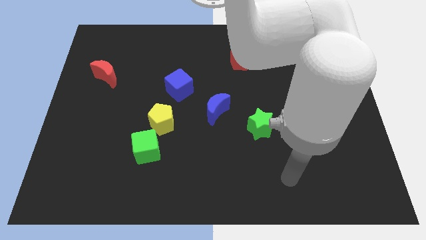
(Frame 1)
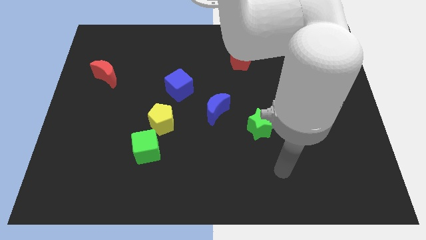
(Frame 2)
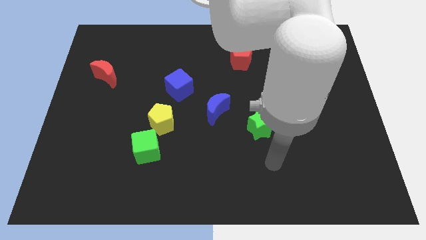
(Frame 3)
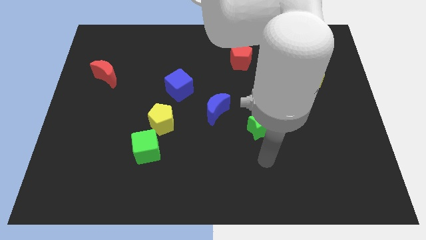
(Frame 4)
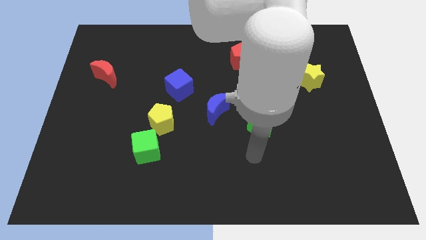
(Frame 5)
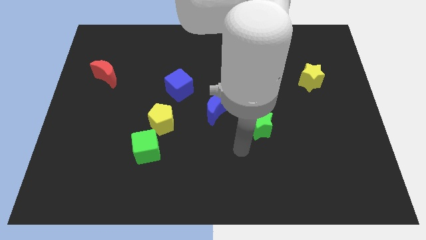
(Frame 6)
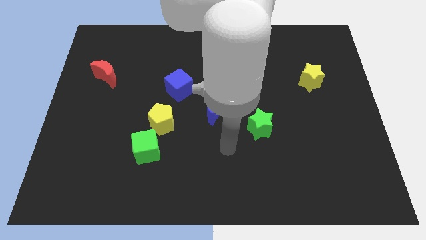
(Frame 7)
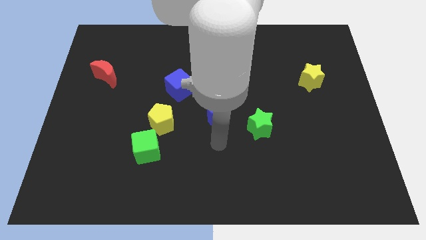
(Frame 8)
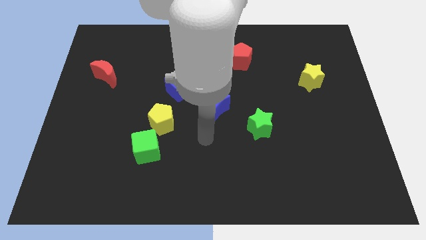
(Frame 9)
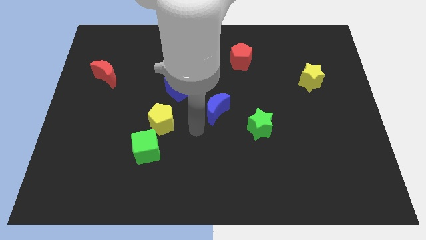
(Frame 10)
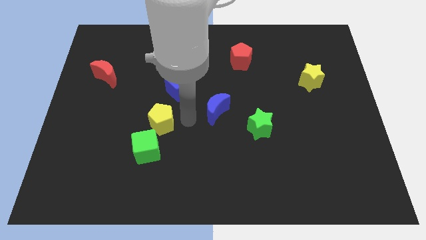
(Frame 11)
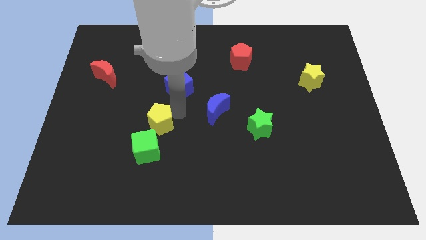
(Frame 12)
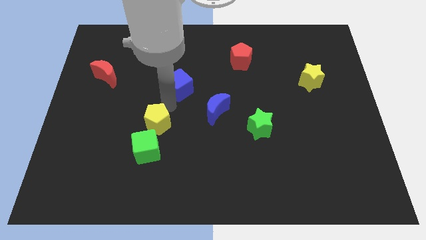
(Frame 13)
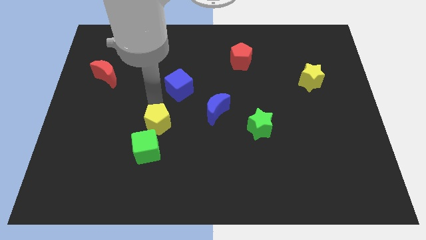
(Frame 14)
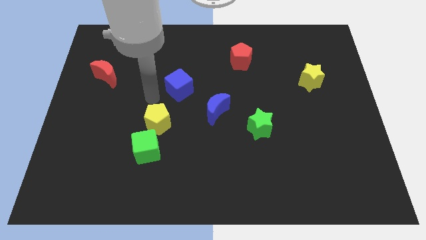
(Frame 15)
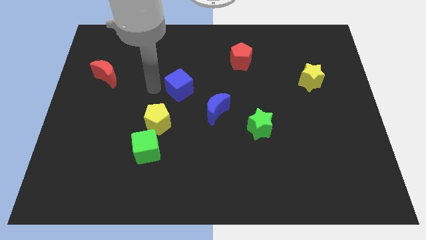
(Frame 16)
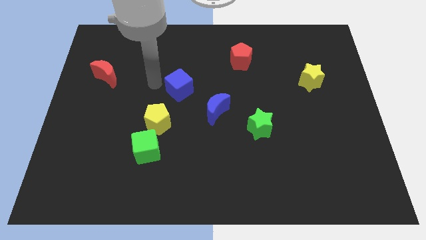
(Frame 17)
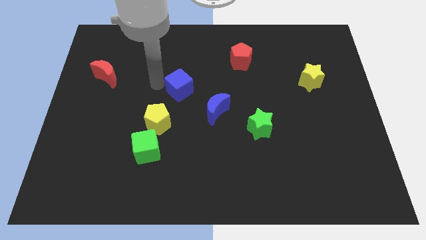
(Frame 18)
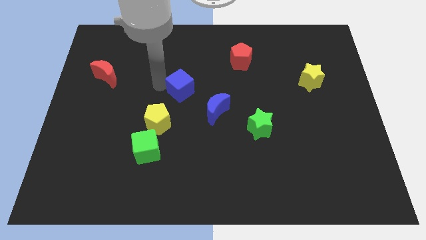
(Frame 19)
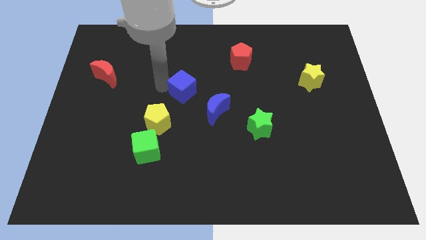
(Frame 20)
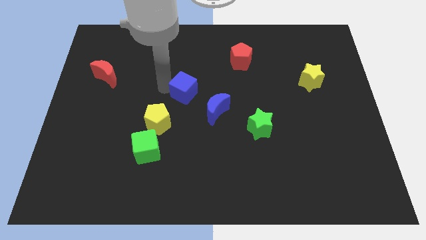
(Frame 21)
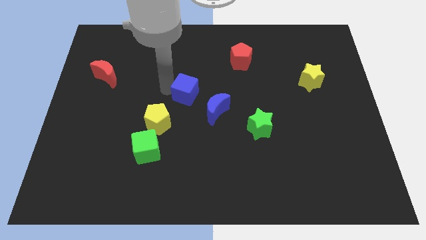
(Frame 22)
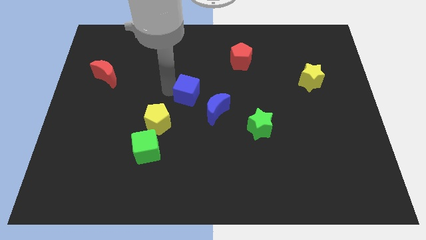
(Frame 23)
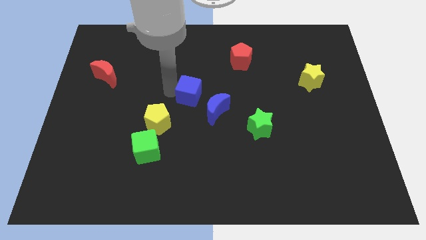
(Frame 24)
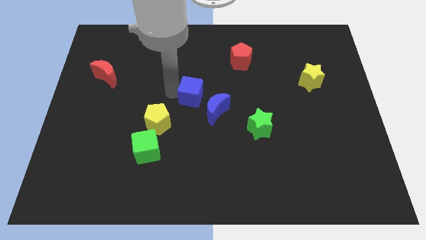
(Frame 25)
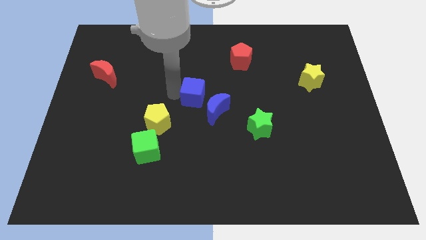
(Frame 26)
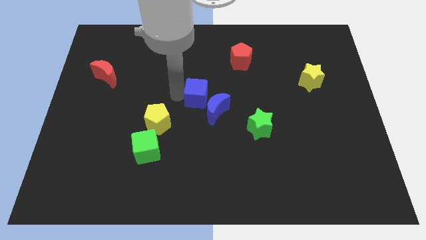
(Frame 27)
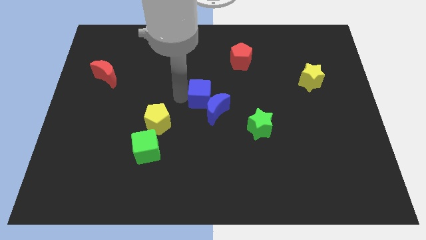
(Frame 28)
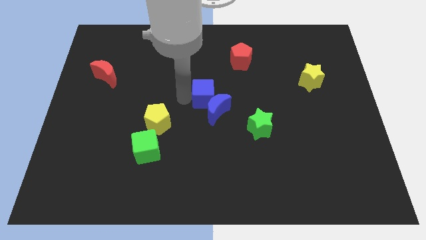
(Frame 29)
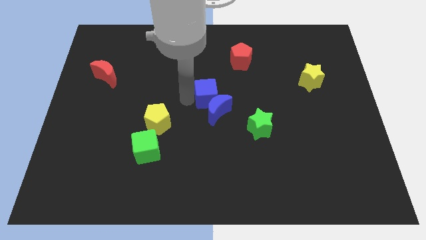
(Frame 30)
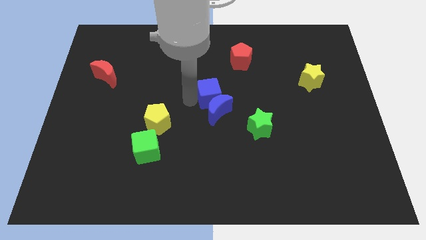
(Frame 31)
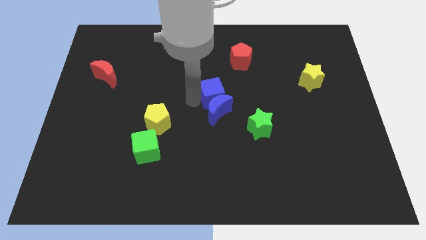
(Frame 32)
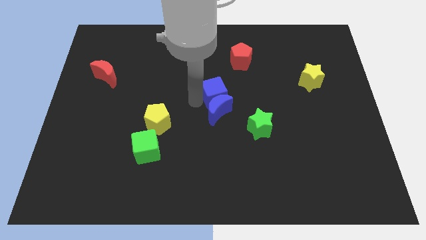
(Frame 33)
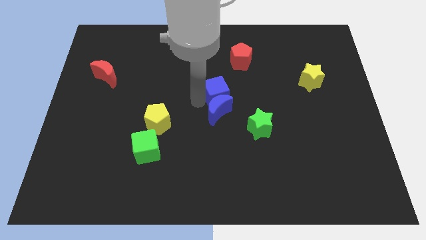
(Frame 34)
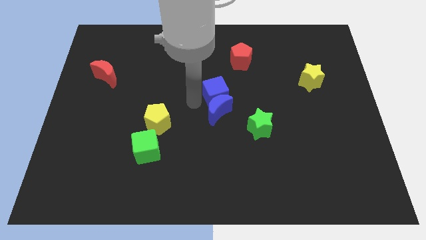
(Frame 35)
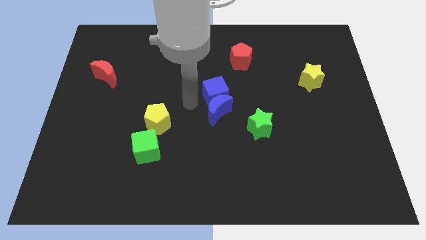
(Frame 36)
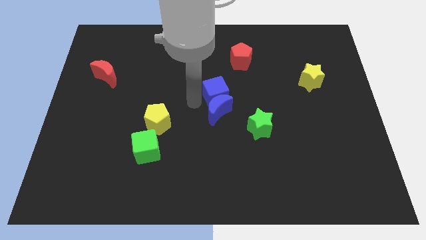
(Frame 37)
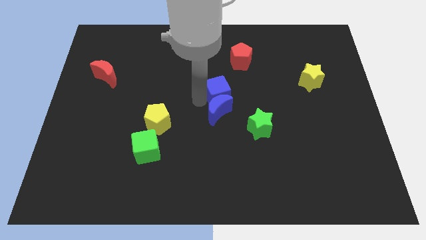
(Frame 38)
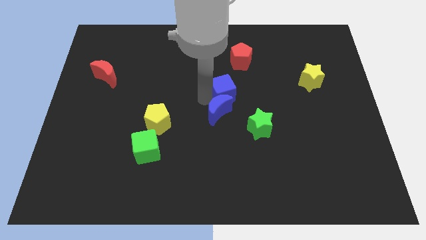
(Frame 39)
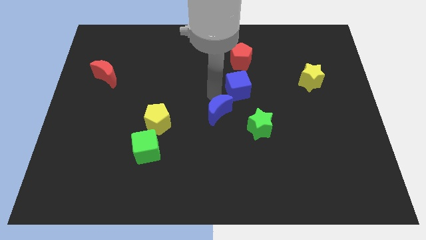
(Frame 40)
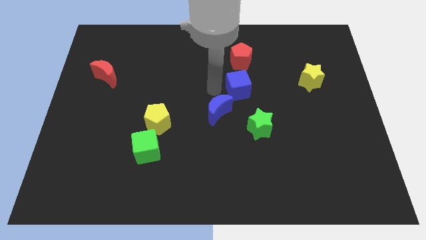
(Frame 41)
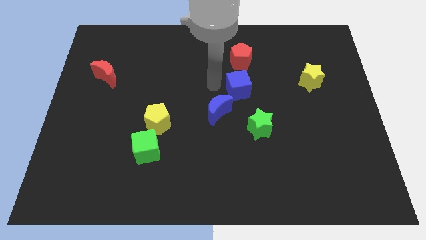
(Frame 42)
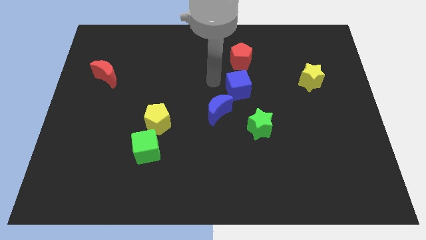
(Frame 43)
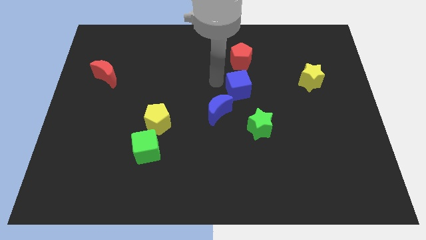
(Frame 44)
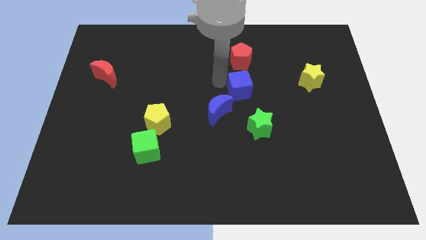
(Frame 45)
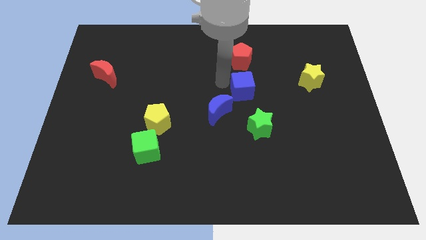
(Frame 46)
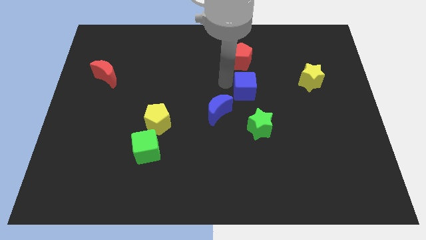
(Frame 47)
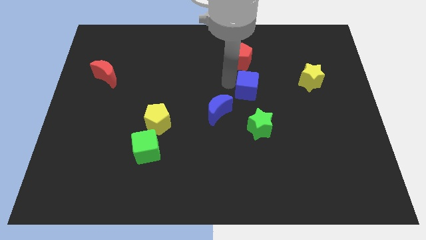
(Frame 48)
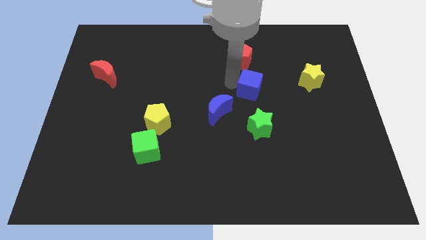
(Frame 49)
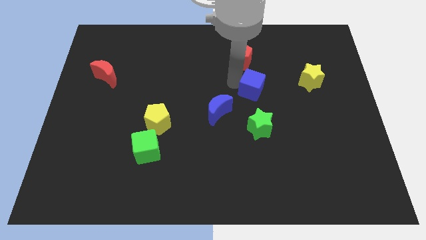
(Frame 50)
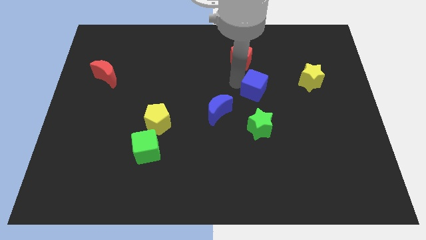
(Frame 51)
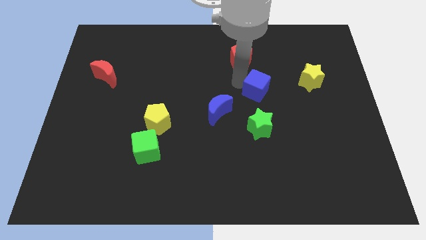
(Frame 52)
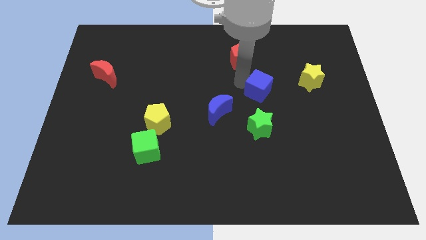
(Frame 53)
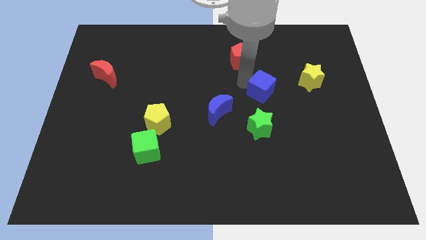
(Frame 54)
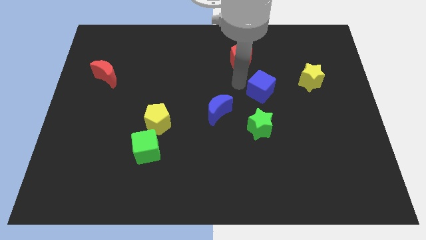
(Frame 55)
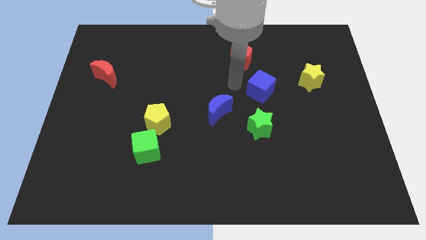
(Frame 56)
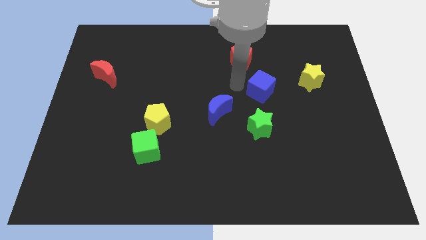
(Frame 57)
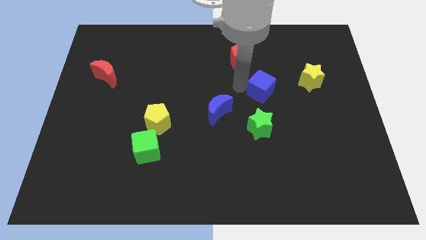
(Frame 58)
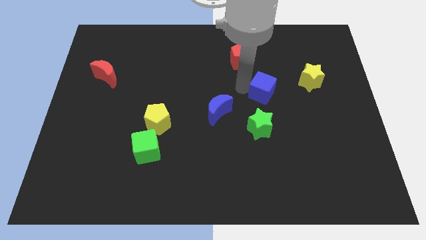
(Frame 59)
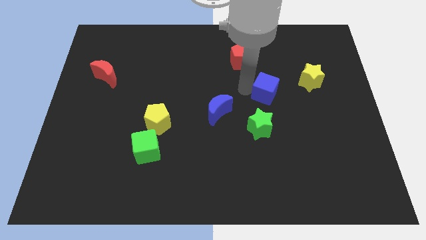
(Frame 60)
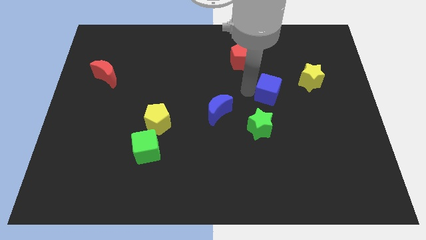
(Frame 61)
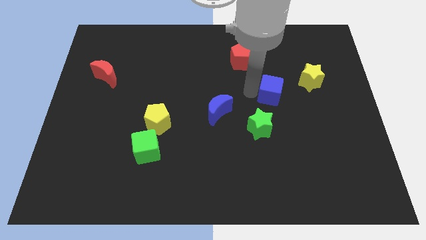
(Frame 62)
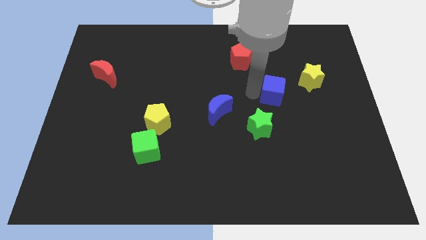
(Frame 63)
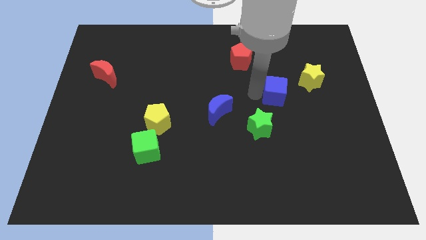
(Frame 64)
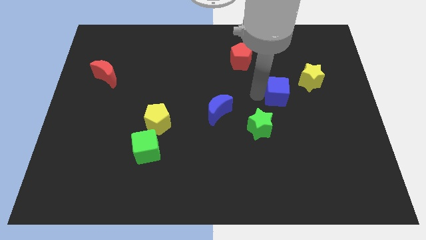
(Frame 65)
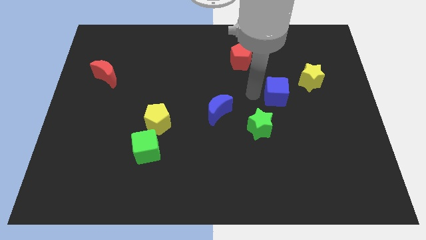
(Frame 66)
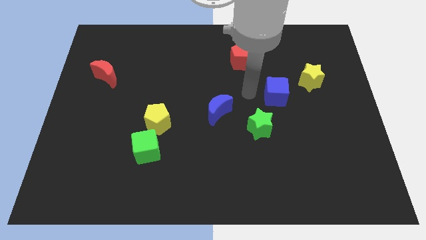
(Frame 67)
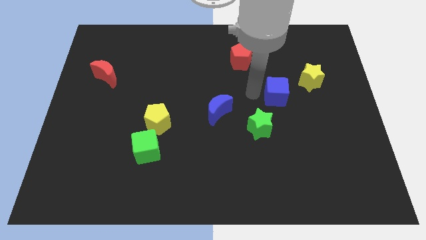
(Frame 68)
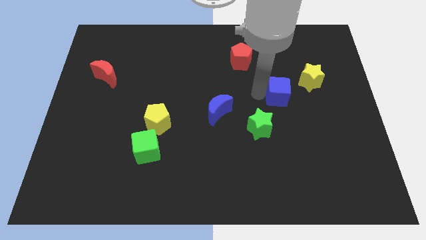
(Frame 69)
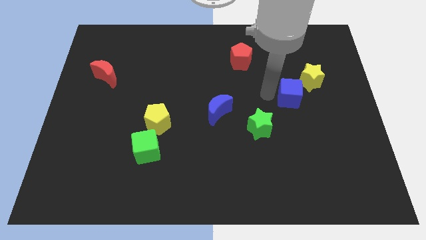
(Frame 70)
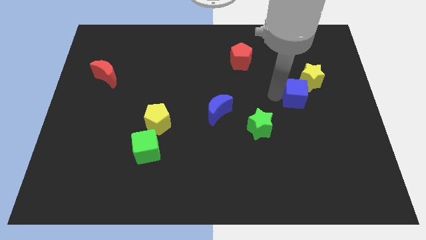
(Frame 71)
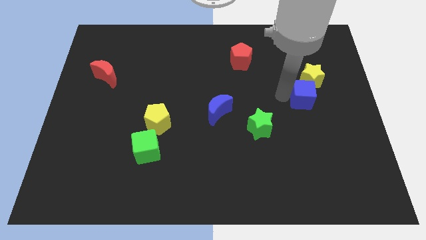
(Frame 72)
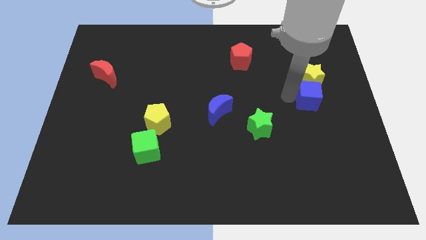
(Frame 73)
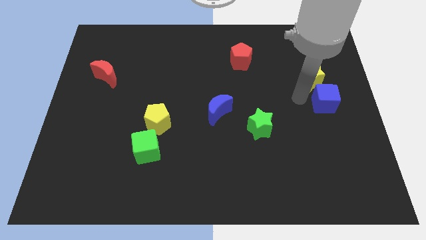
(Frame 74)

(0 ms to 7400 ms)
move the blue cube to the right side of the board
